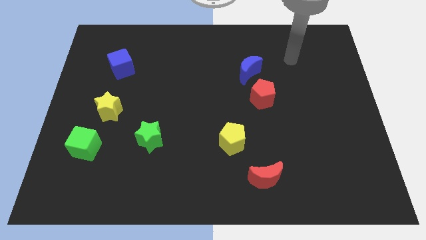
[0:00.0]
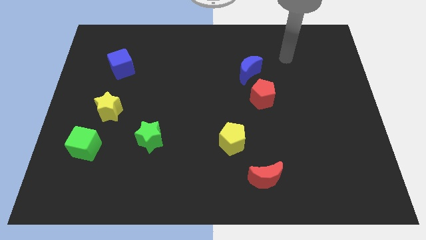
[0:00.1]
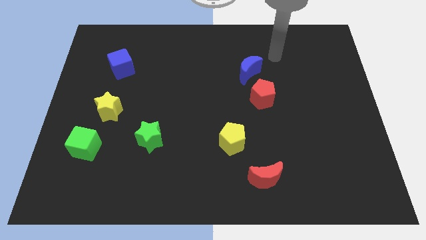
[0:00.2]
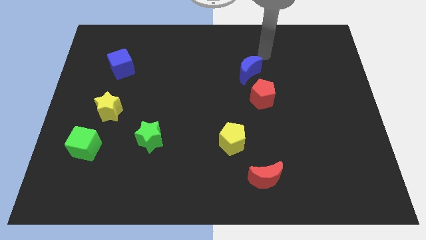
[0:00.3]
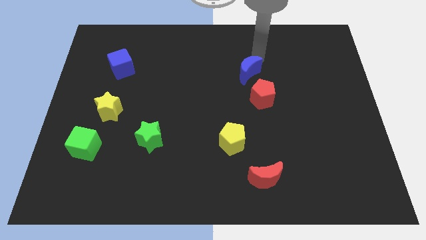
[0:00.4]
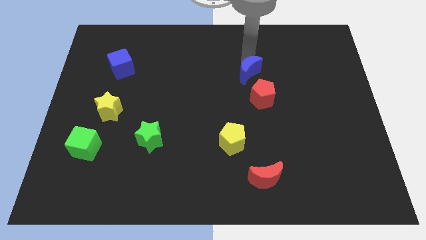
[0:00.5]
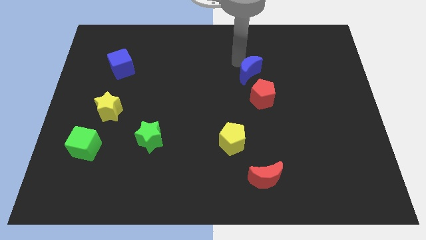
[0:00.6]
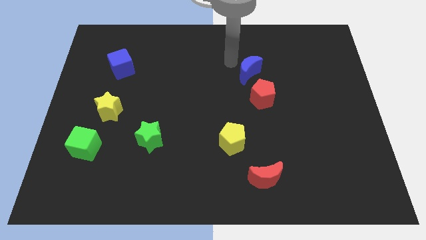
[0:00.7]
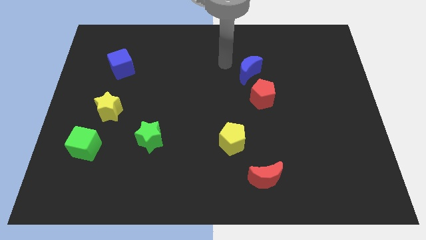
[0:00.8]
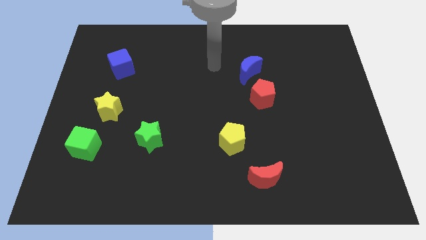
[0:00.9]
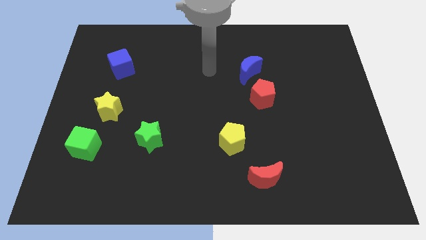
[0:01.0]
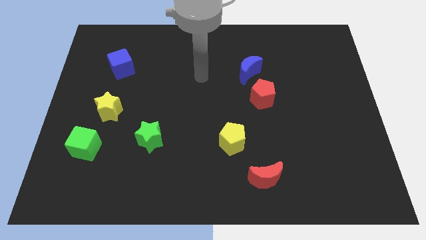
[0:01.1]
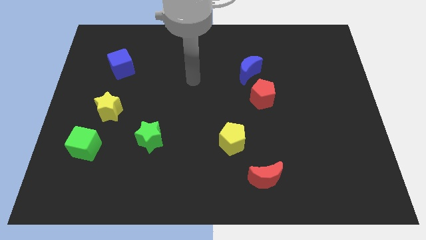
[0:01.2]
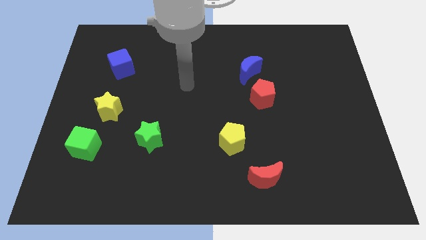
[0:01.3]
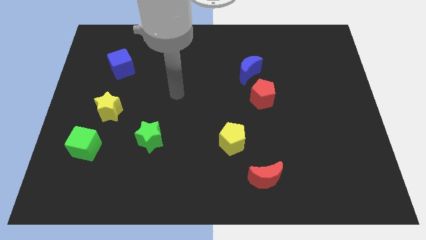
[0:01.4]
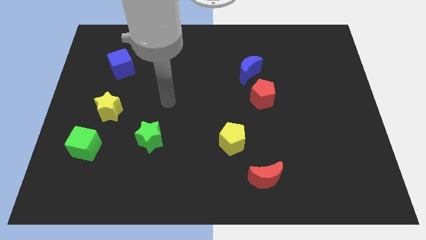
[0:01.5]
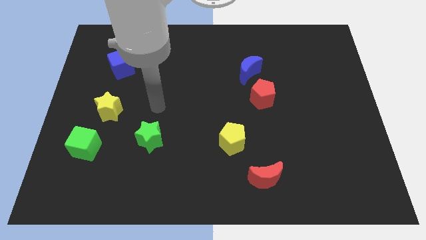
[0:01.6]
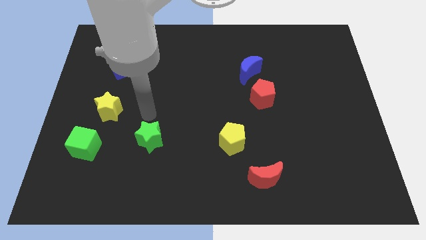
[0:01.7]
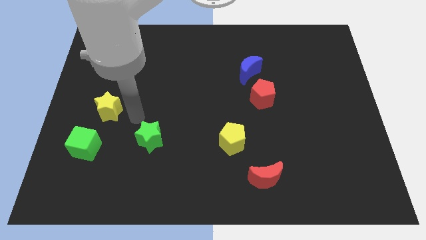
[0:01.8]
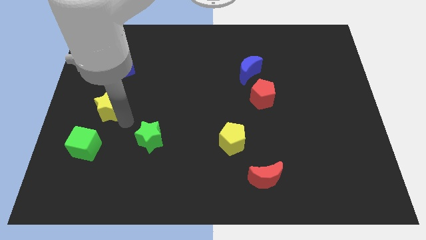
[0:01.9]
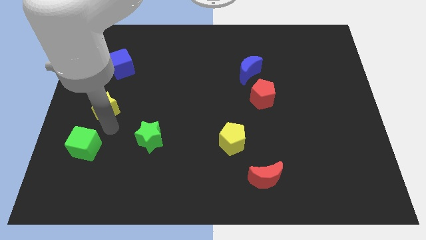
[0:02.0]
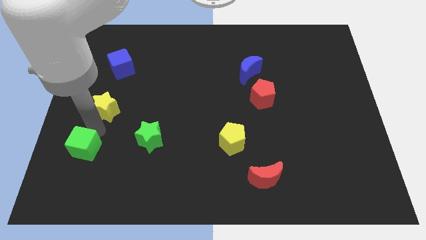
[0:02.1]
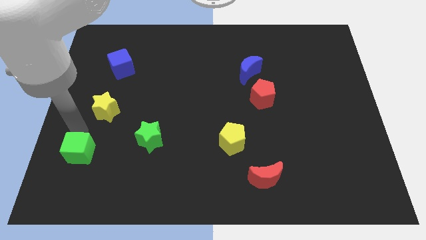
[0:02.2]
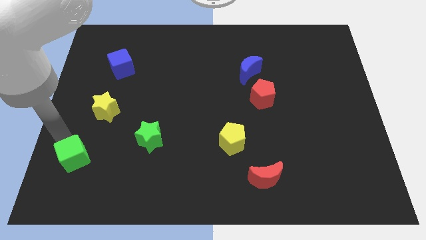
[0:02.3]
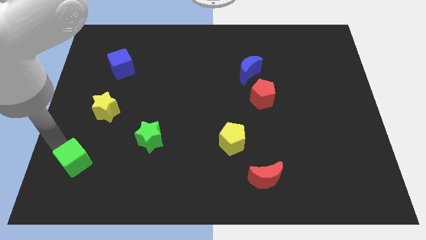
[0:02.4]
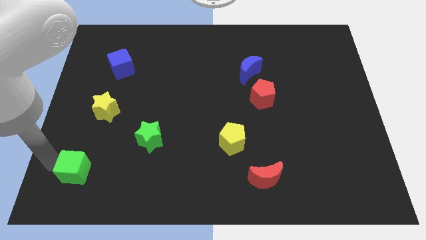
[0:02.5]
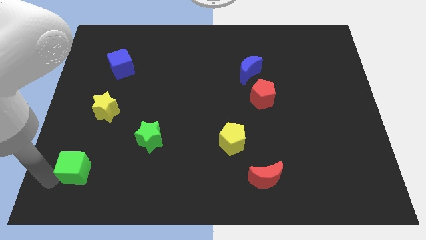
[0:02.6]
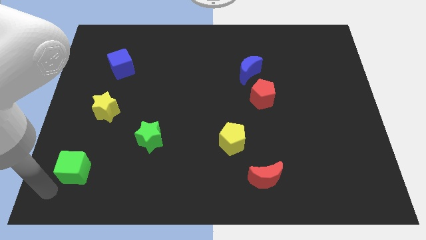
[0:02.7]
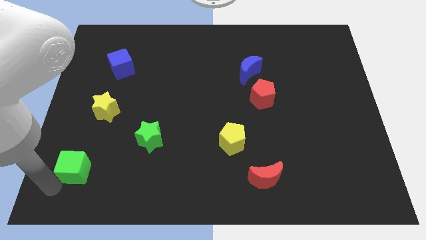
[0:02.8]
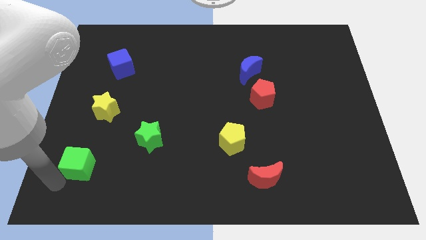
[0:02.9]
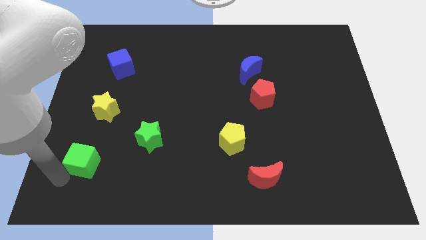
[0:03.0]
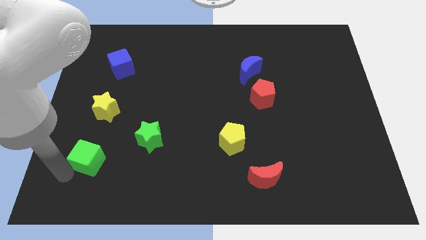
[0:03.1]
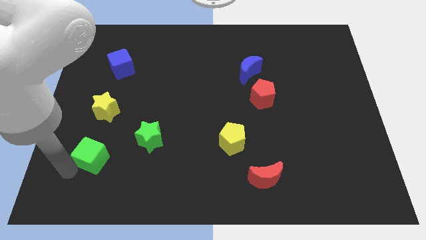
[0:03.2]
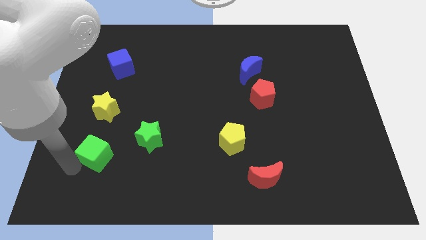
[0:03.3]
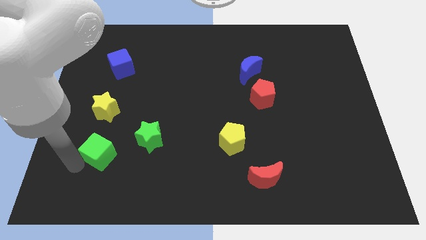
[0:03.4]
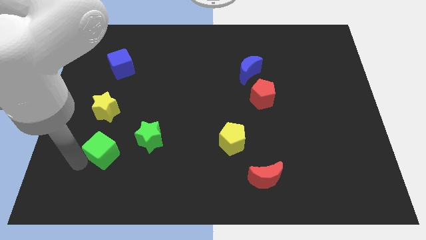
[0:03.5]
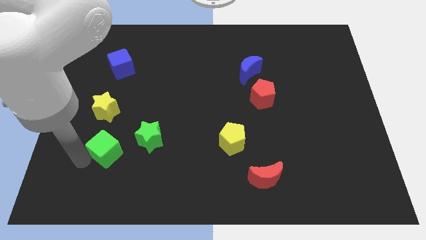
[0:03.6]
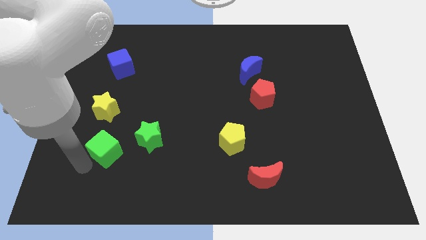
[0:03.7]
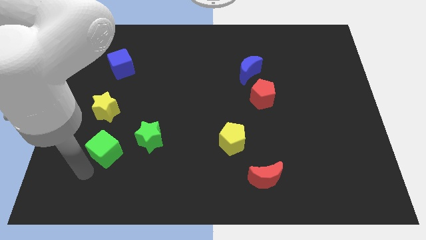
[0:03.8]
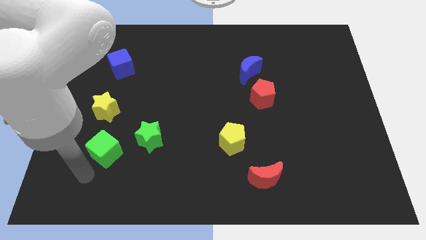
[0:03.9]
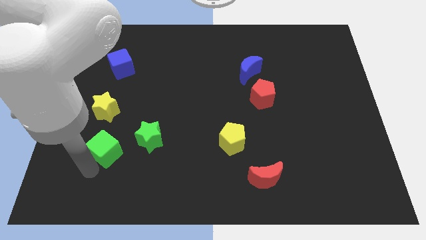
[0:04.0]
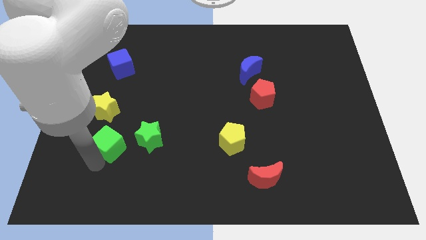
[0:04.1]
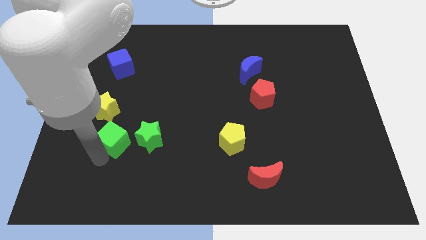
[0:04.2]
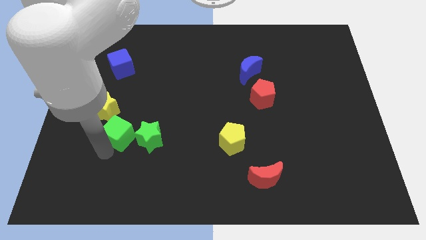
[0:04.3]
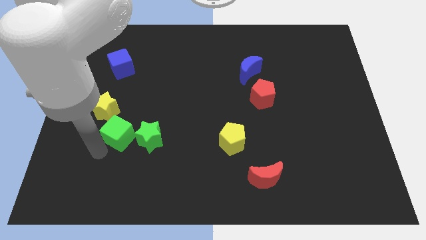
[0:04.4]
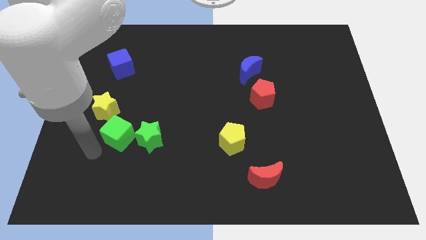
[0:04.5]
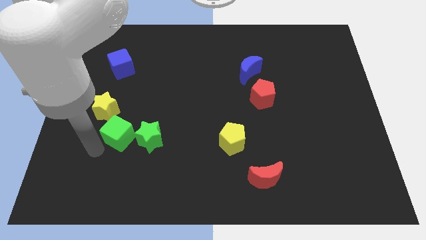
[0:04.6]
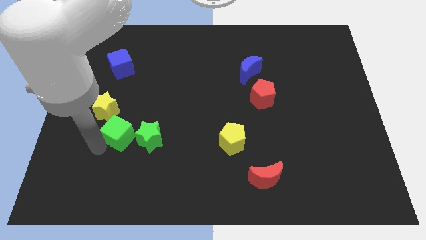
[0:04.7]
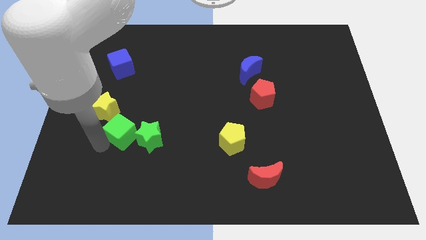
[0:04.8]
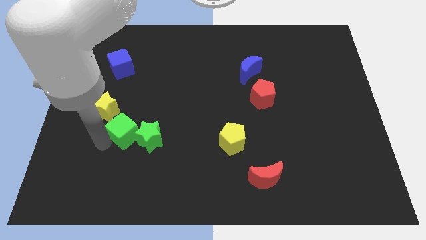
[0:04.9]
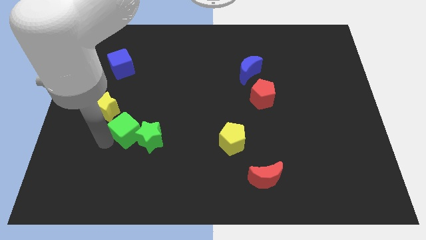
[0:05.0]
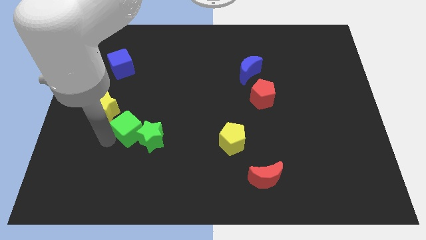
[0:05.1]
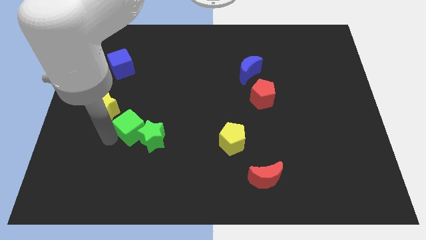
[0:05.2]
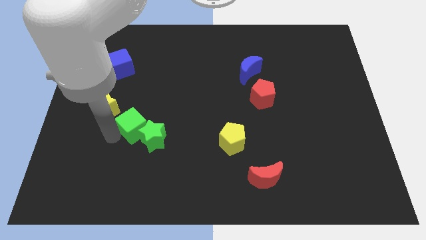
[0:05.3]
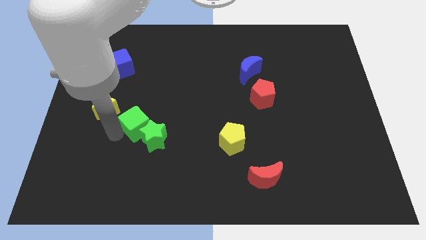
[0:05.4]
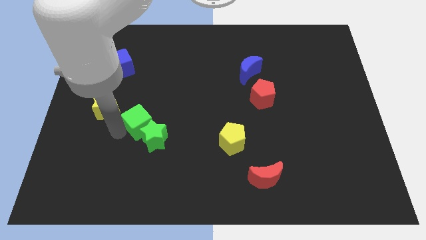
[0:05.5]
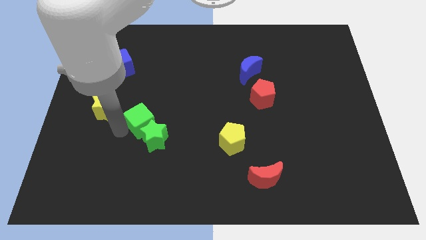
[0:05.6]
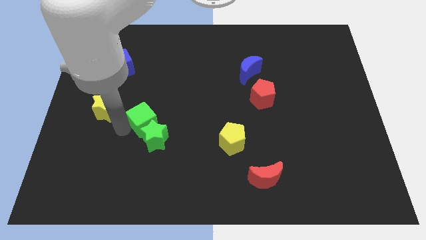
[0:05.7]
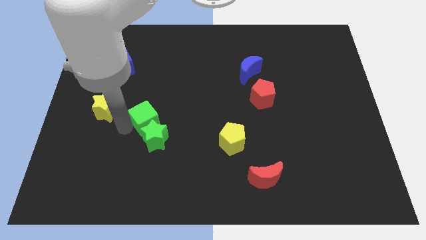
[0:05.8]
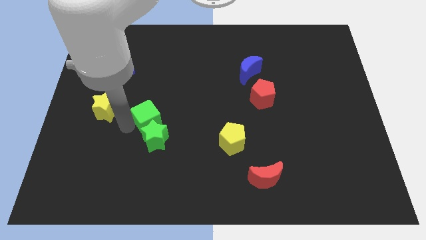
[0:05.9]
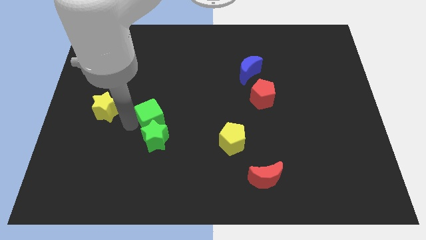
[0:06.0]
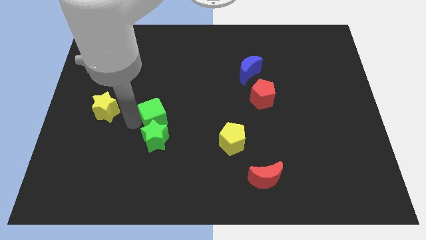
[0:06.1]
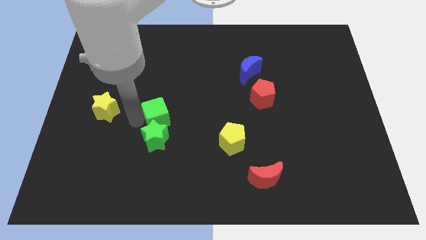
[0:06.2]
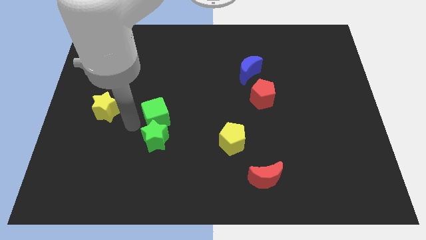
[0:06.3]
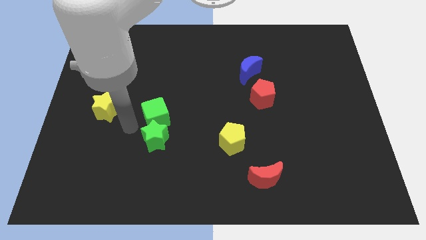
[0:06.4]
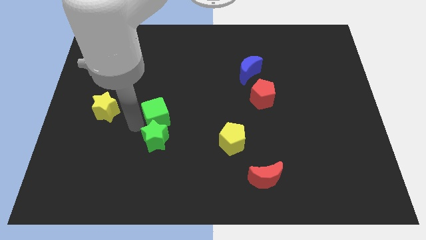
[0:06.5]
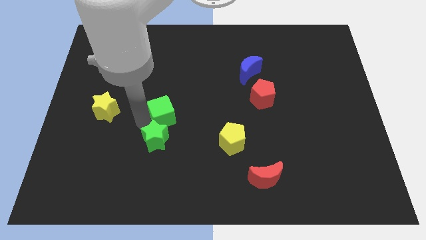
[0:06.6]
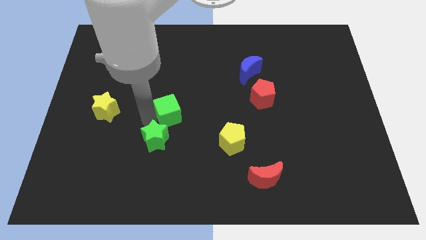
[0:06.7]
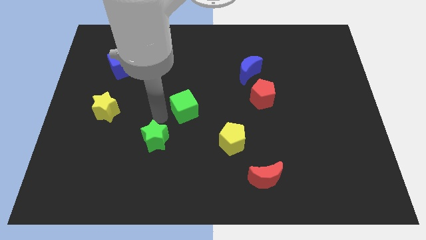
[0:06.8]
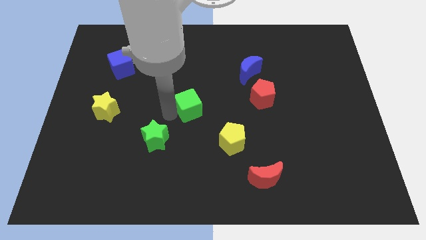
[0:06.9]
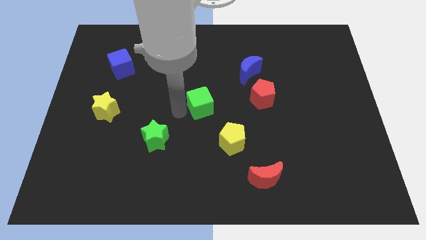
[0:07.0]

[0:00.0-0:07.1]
push the green cube just left of the red pentagon

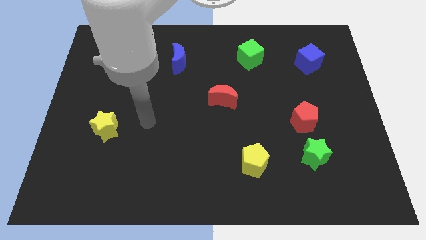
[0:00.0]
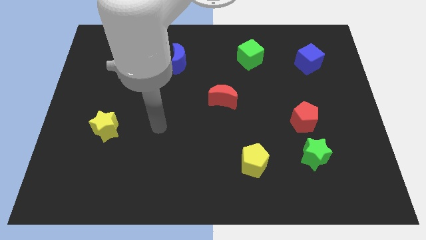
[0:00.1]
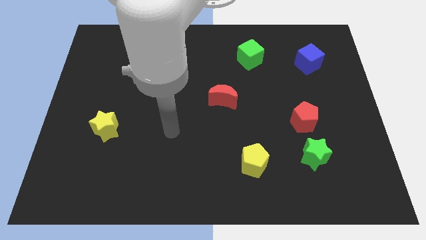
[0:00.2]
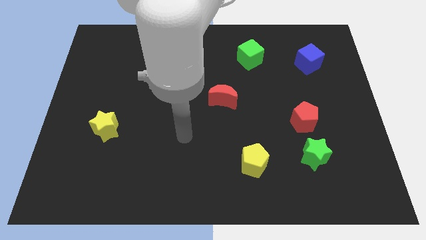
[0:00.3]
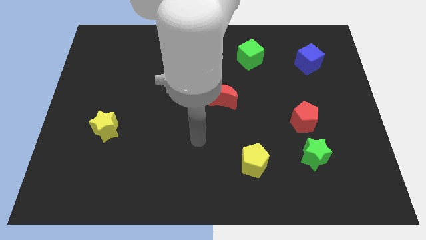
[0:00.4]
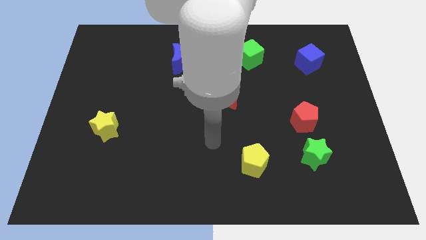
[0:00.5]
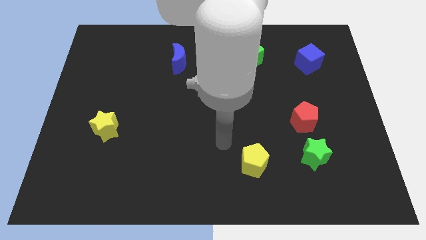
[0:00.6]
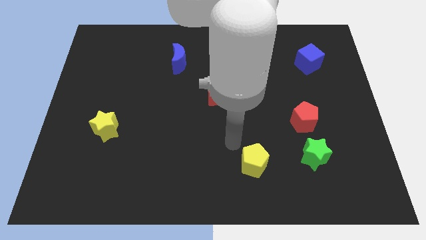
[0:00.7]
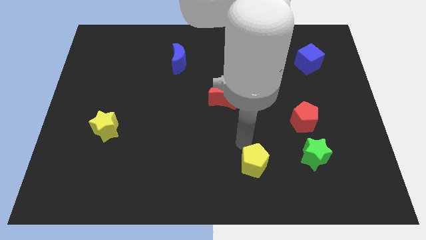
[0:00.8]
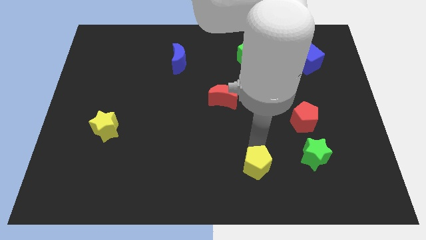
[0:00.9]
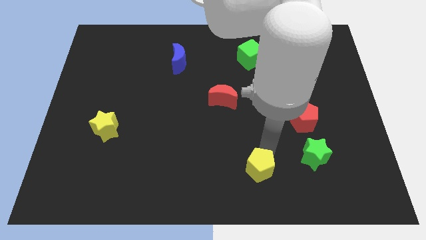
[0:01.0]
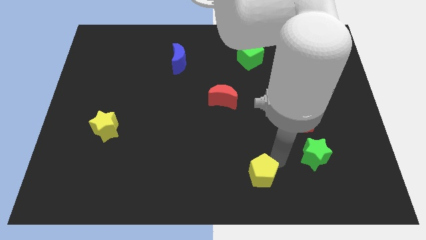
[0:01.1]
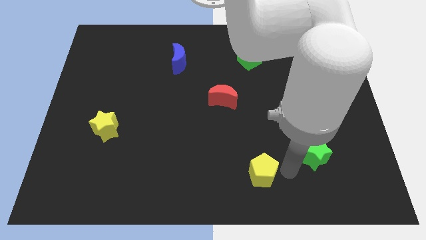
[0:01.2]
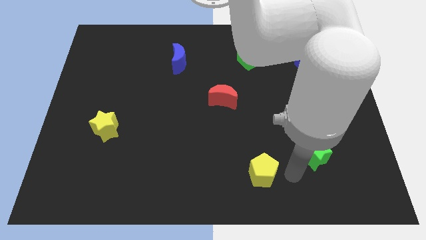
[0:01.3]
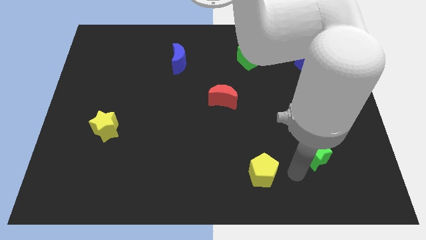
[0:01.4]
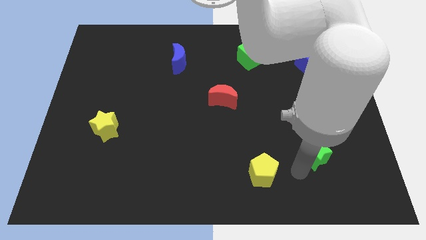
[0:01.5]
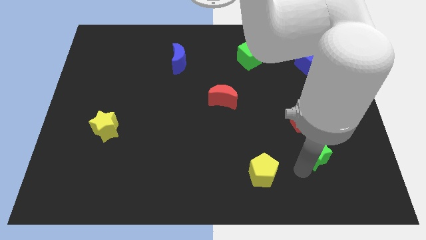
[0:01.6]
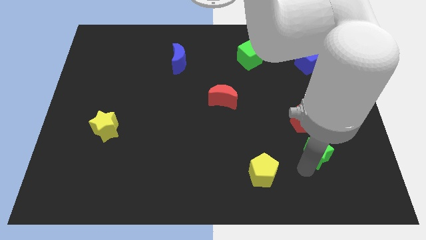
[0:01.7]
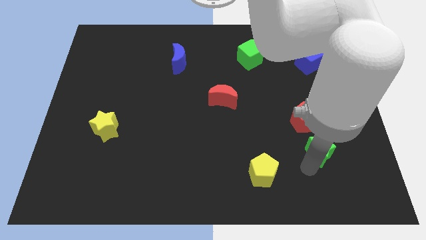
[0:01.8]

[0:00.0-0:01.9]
push the green star to the bottom right side of the red pentagon
